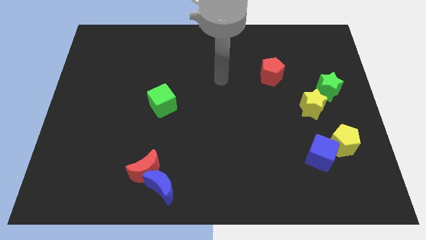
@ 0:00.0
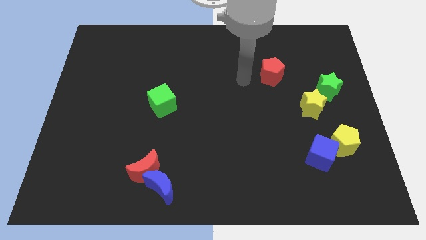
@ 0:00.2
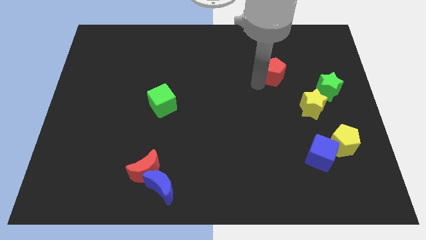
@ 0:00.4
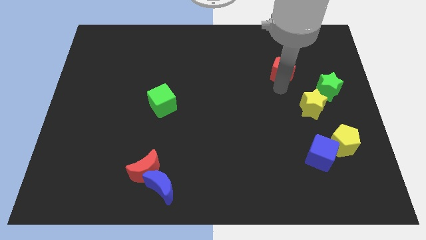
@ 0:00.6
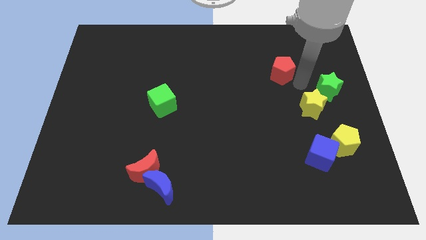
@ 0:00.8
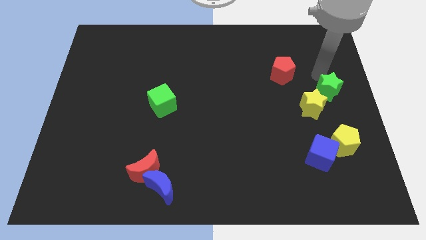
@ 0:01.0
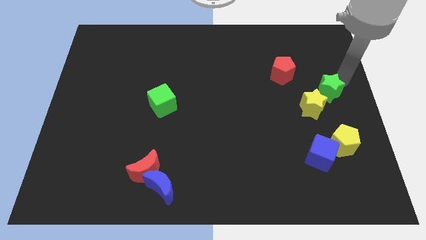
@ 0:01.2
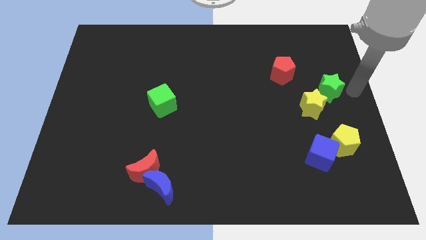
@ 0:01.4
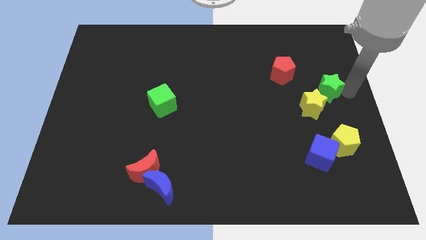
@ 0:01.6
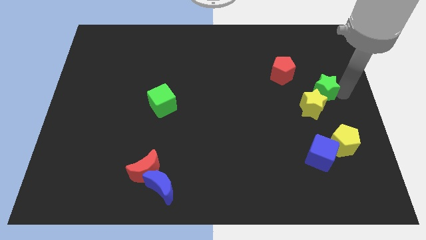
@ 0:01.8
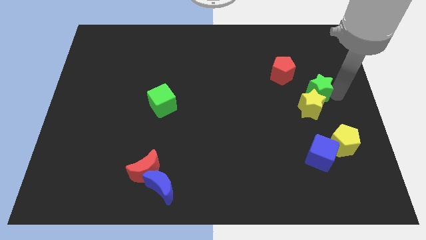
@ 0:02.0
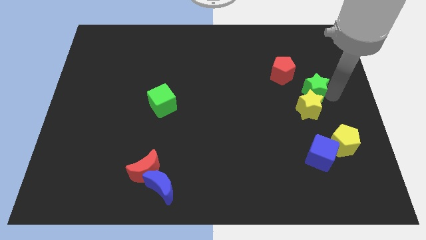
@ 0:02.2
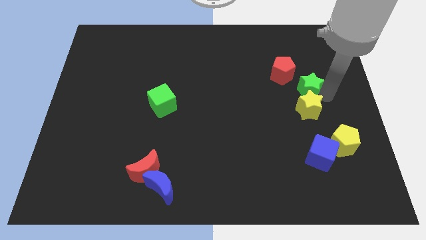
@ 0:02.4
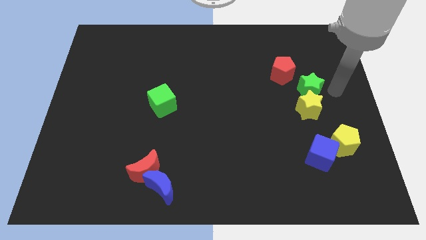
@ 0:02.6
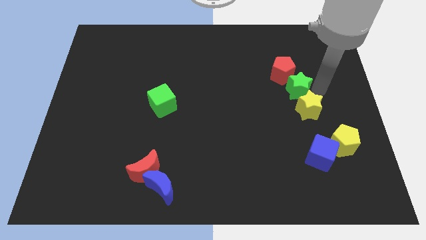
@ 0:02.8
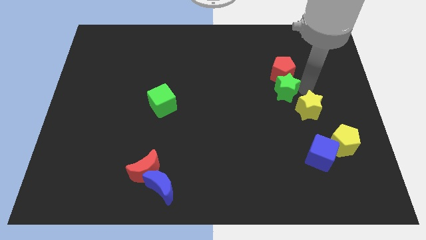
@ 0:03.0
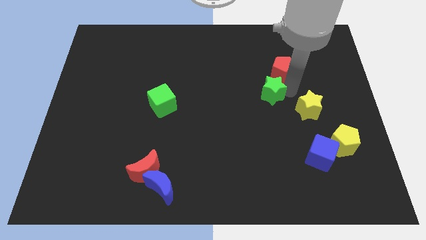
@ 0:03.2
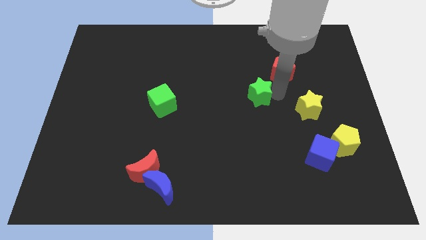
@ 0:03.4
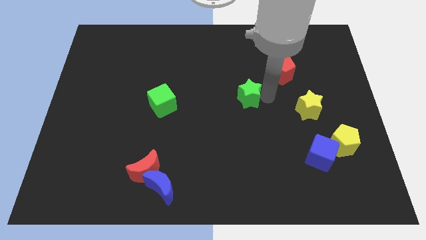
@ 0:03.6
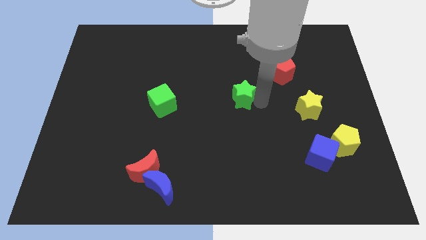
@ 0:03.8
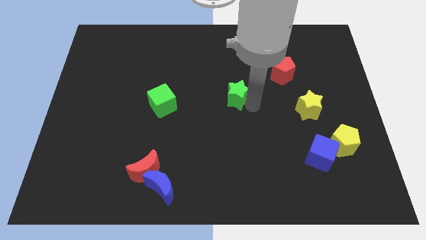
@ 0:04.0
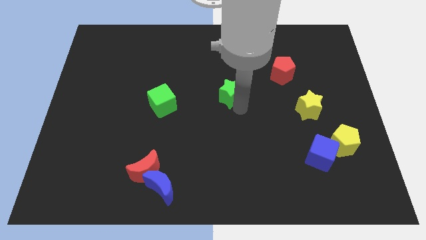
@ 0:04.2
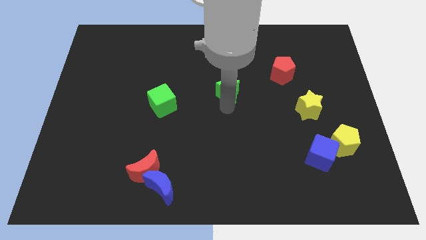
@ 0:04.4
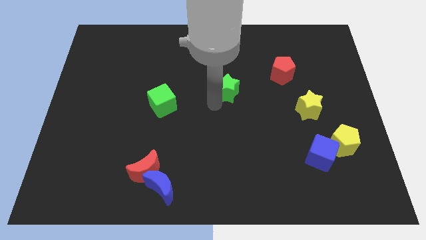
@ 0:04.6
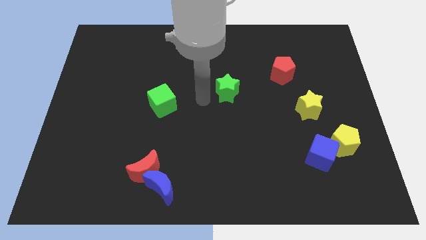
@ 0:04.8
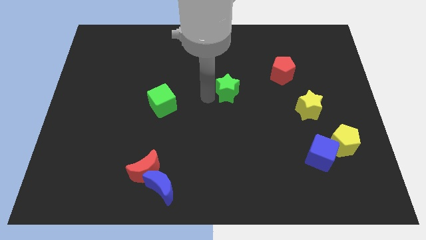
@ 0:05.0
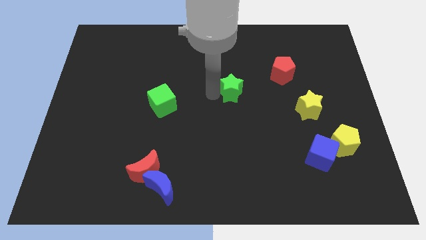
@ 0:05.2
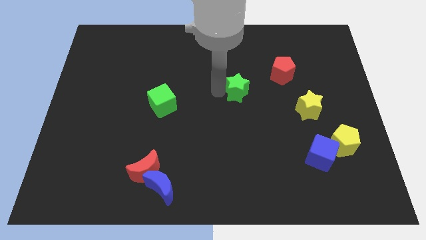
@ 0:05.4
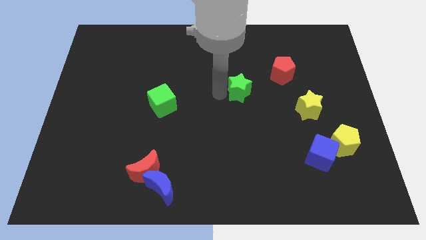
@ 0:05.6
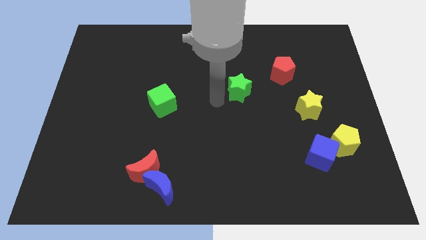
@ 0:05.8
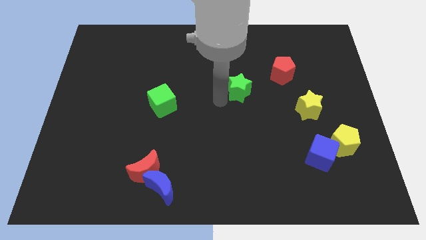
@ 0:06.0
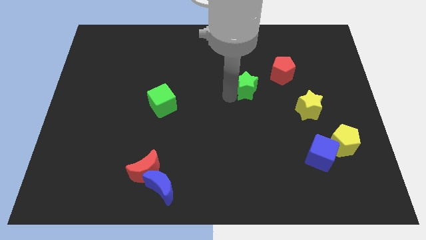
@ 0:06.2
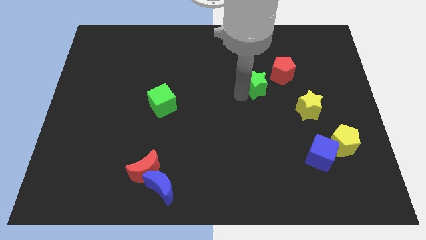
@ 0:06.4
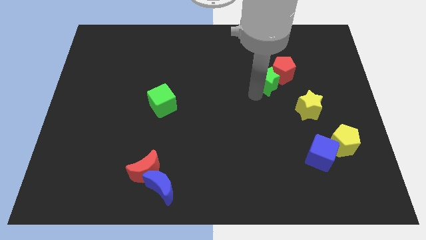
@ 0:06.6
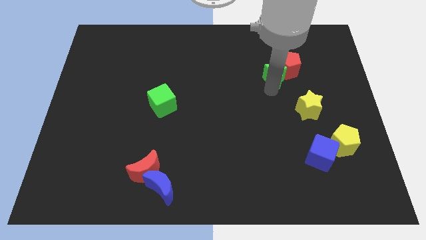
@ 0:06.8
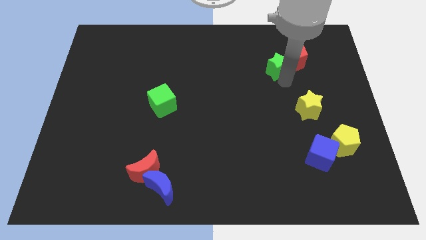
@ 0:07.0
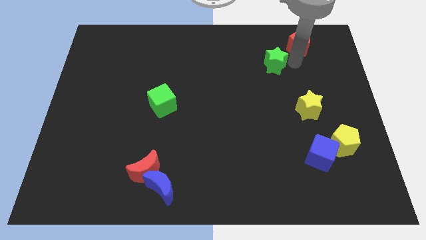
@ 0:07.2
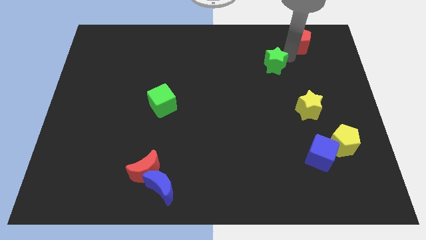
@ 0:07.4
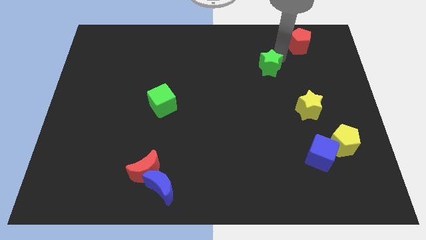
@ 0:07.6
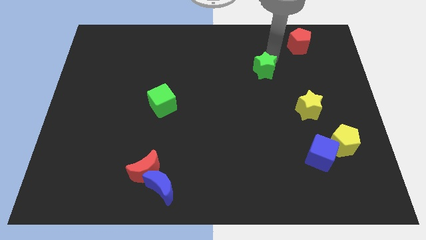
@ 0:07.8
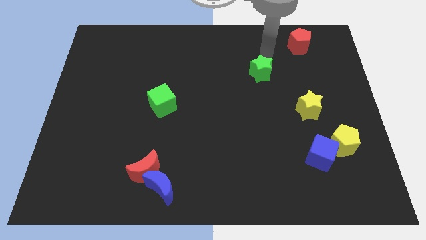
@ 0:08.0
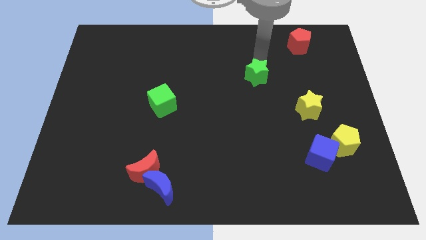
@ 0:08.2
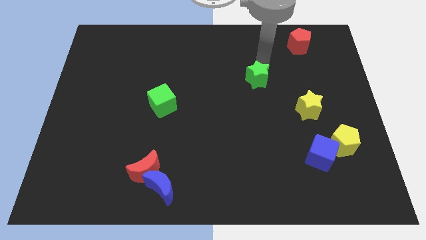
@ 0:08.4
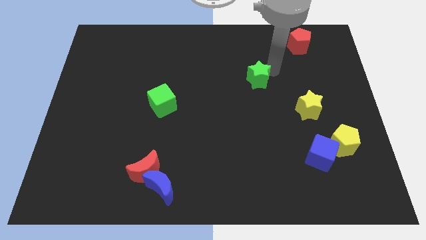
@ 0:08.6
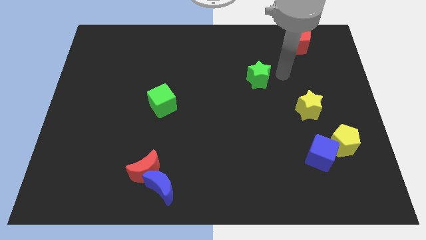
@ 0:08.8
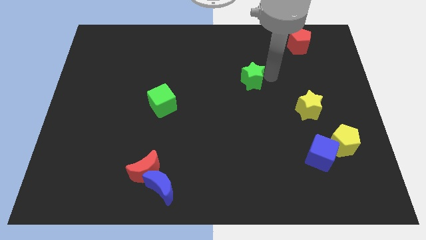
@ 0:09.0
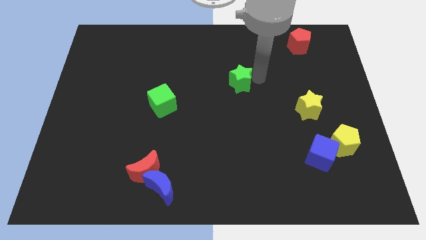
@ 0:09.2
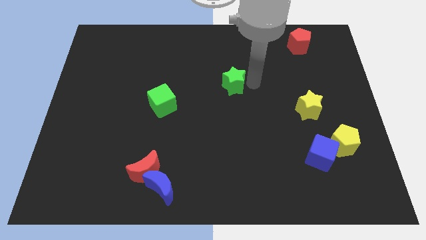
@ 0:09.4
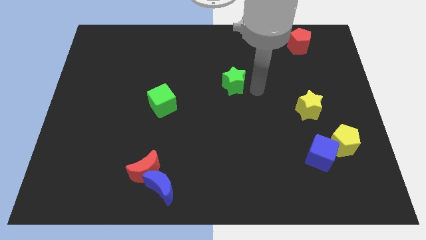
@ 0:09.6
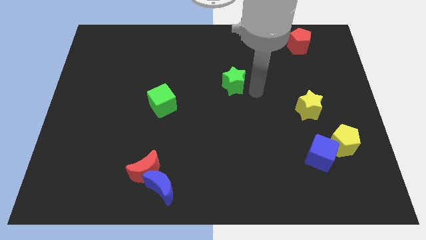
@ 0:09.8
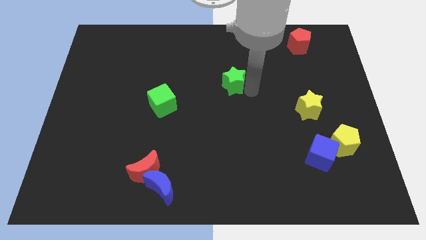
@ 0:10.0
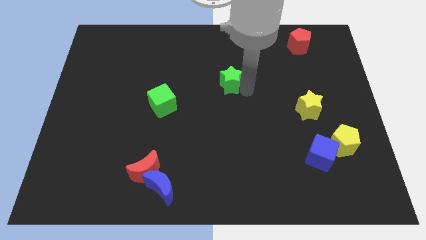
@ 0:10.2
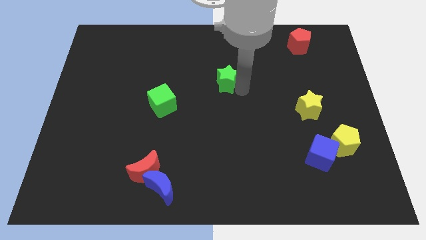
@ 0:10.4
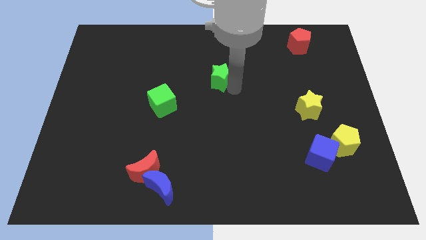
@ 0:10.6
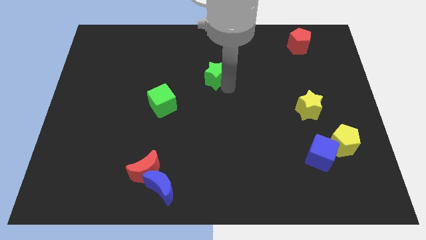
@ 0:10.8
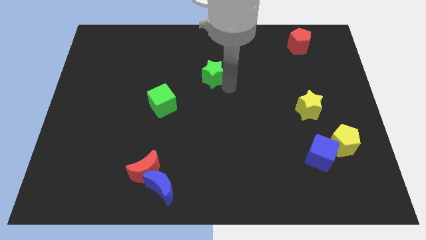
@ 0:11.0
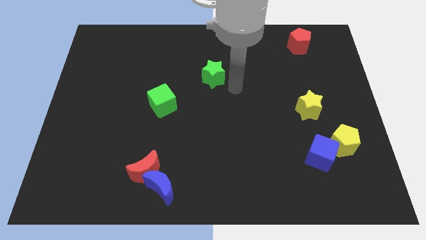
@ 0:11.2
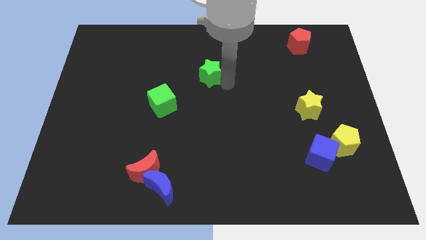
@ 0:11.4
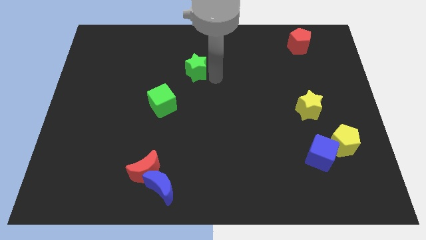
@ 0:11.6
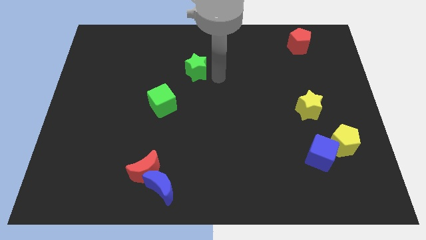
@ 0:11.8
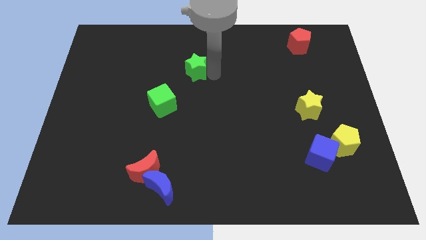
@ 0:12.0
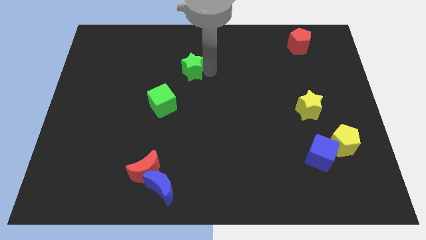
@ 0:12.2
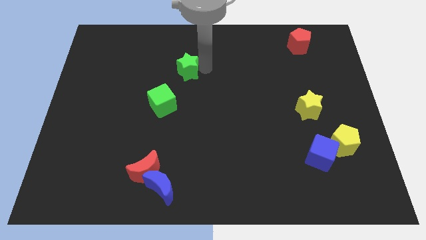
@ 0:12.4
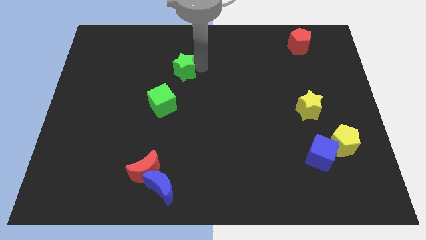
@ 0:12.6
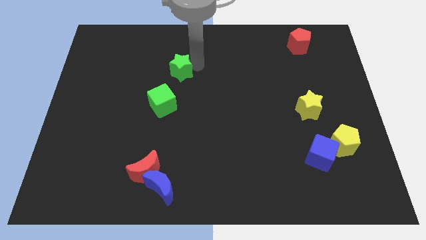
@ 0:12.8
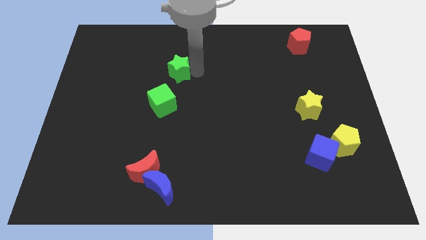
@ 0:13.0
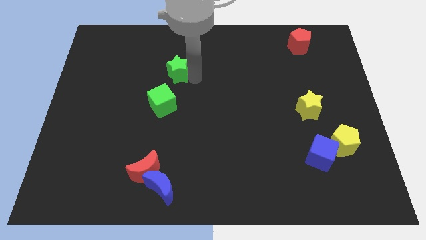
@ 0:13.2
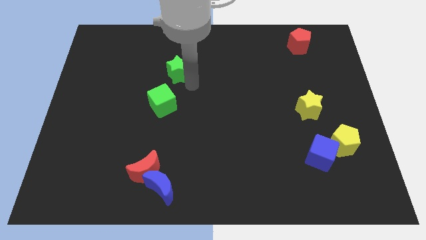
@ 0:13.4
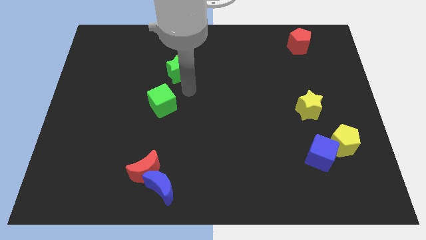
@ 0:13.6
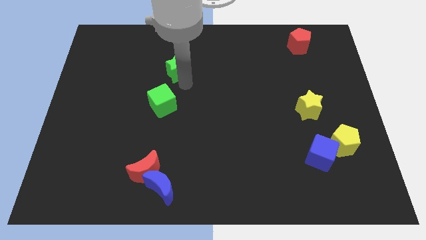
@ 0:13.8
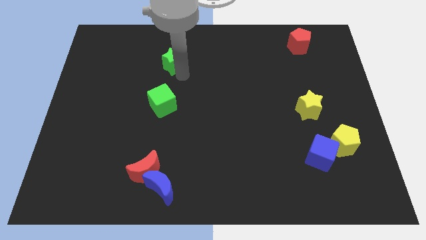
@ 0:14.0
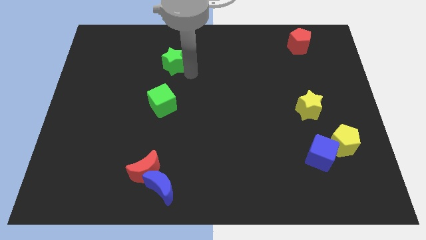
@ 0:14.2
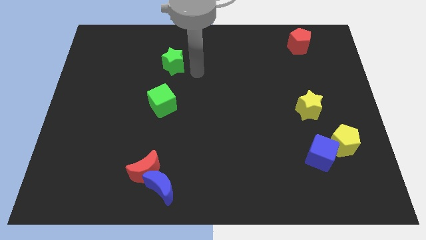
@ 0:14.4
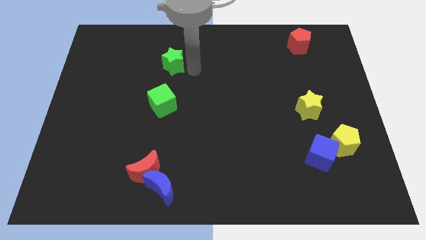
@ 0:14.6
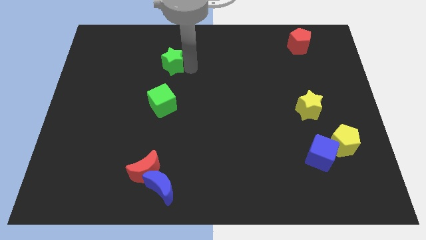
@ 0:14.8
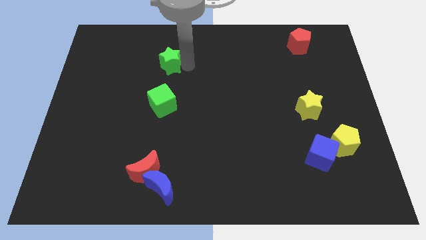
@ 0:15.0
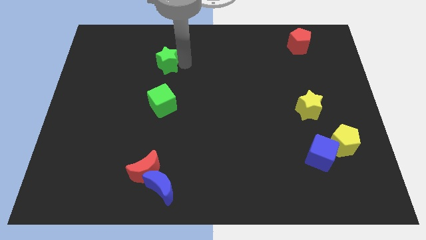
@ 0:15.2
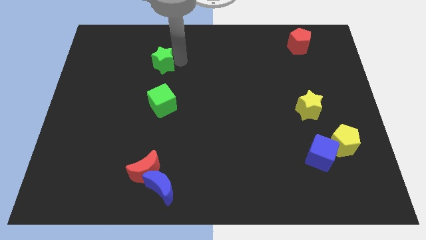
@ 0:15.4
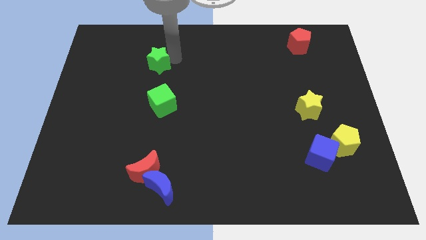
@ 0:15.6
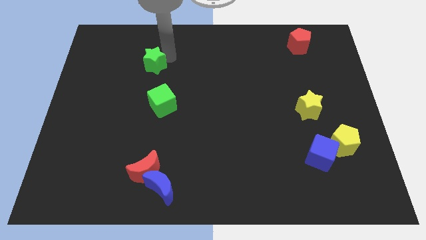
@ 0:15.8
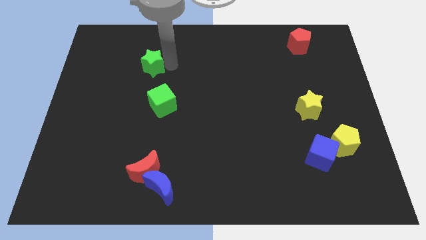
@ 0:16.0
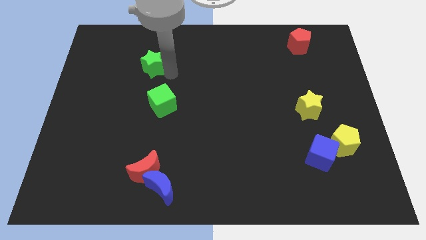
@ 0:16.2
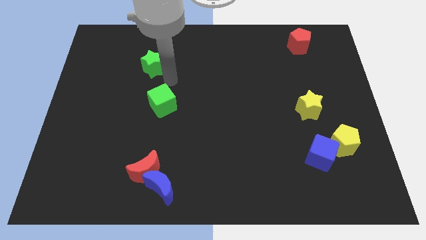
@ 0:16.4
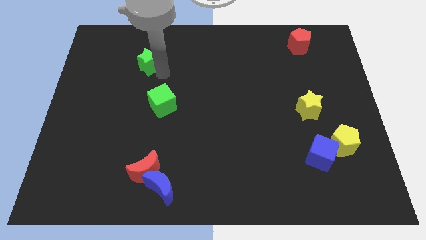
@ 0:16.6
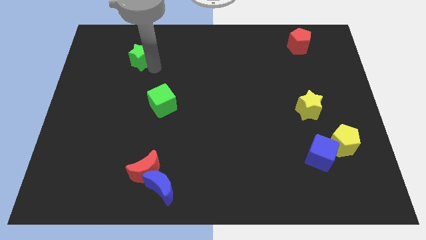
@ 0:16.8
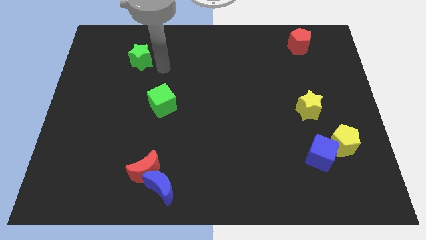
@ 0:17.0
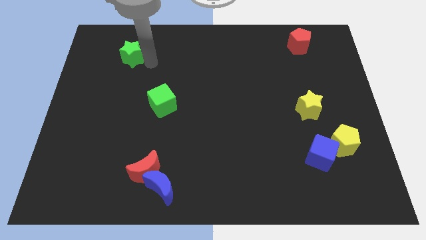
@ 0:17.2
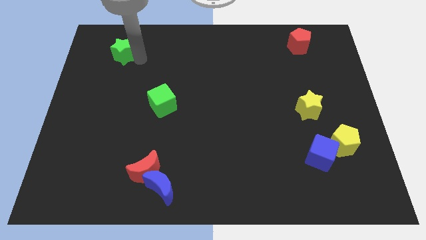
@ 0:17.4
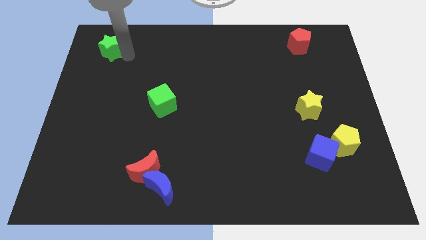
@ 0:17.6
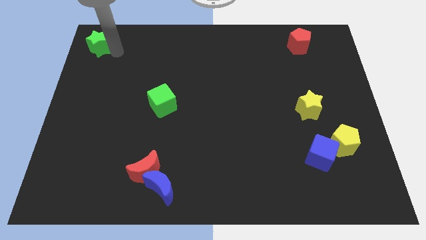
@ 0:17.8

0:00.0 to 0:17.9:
push the green star to the upper left corner
